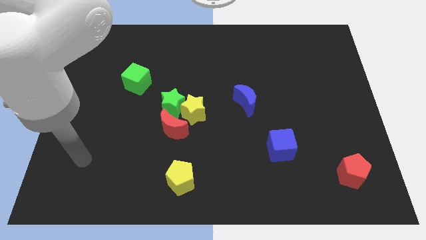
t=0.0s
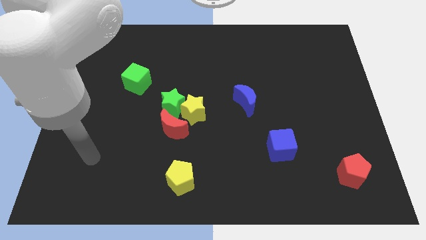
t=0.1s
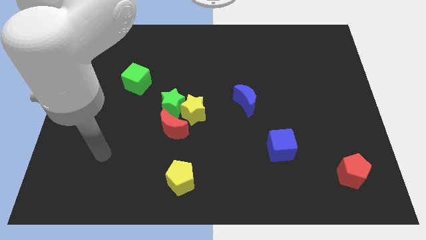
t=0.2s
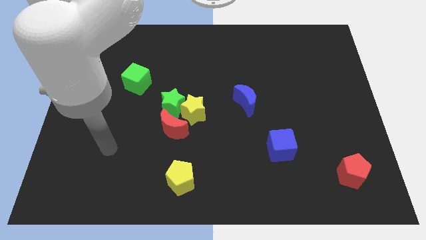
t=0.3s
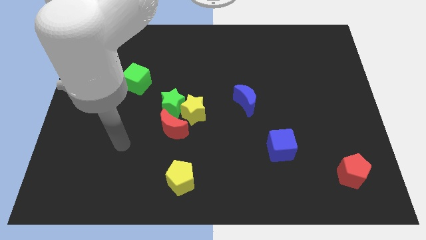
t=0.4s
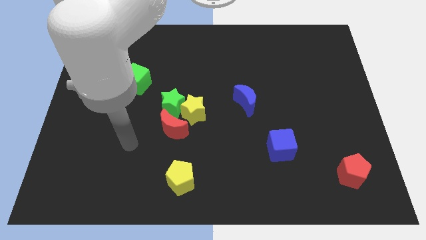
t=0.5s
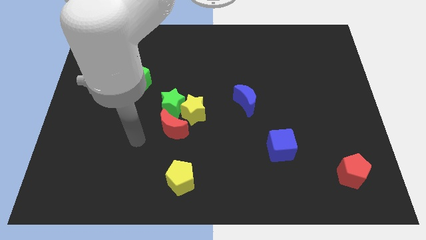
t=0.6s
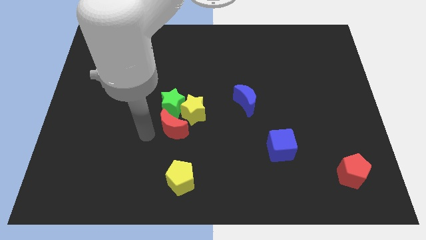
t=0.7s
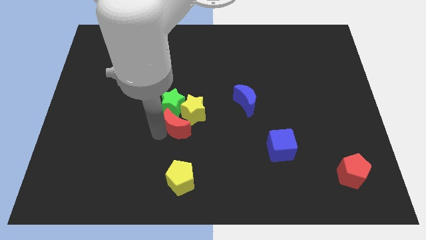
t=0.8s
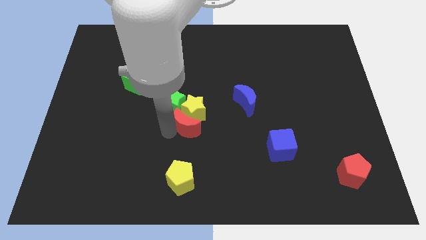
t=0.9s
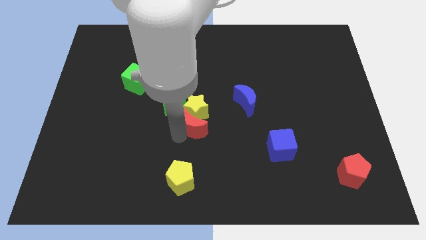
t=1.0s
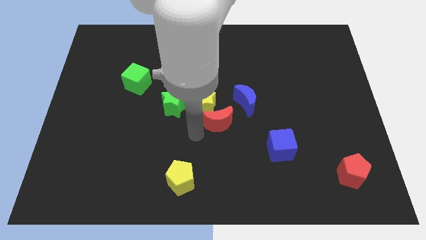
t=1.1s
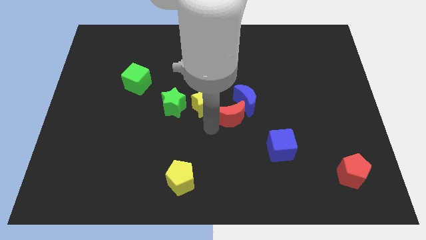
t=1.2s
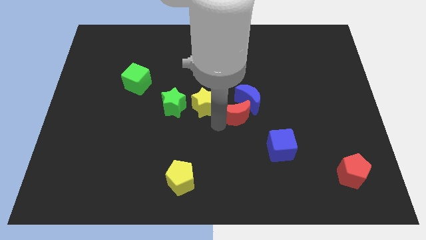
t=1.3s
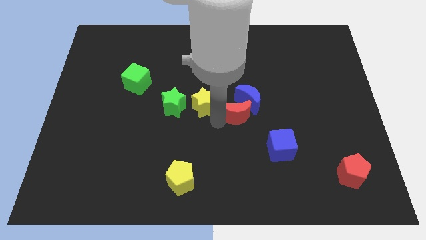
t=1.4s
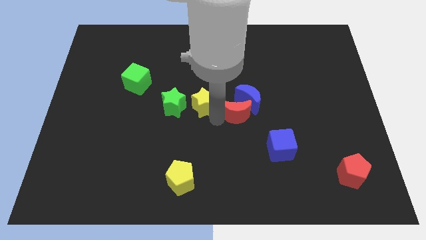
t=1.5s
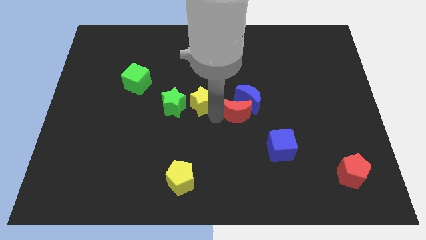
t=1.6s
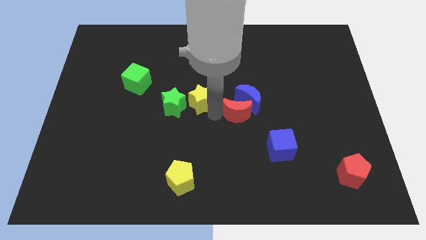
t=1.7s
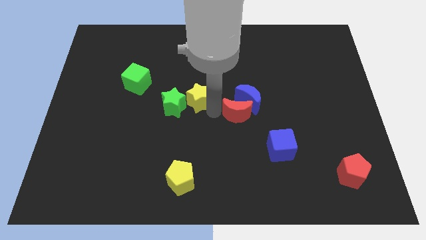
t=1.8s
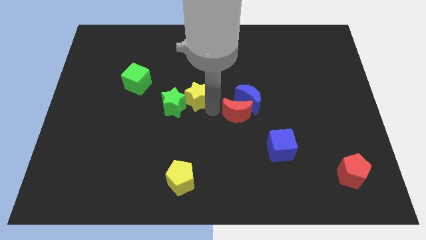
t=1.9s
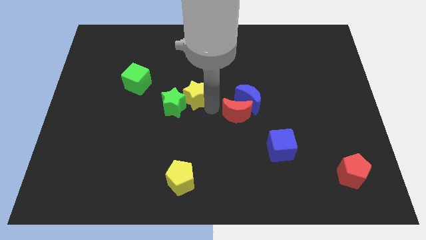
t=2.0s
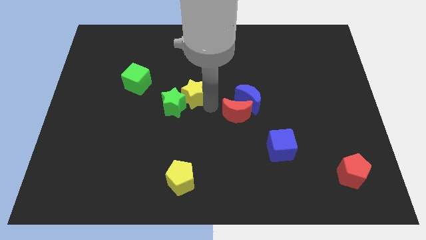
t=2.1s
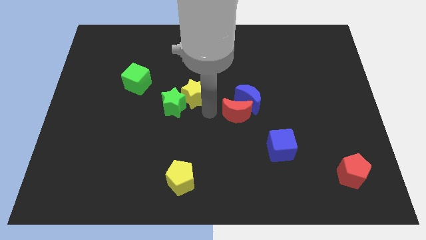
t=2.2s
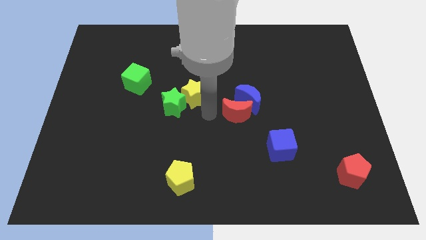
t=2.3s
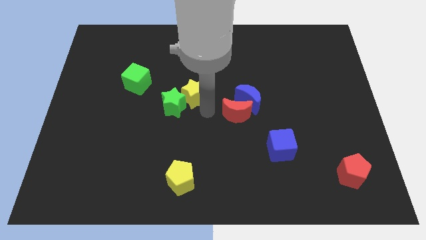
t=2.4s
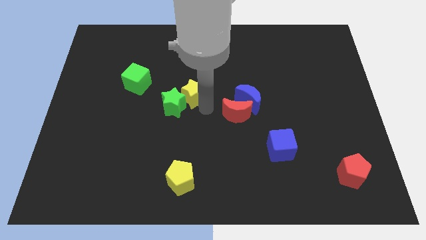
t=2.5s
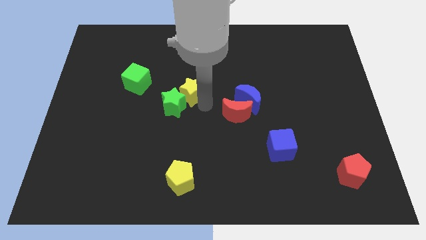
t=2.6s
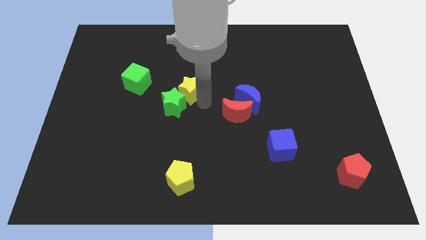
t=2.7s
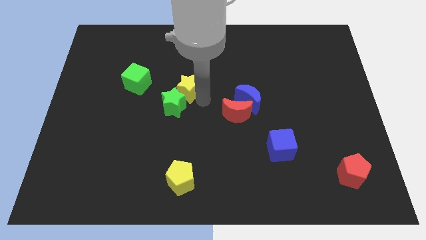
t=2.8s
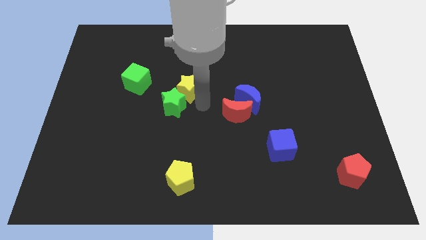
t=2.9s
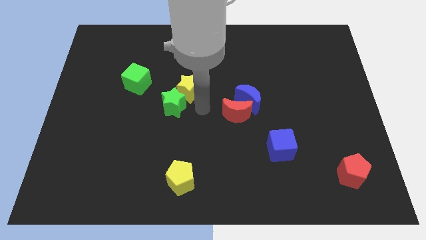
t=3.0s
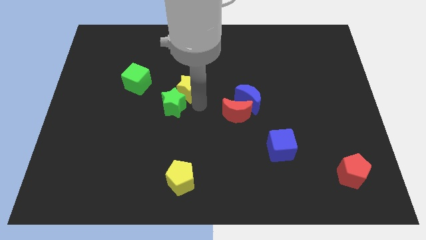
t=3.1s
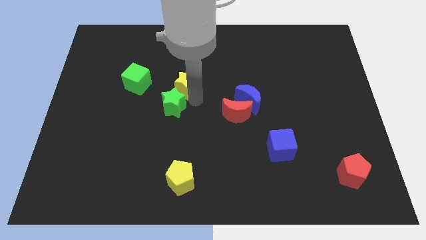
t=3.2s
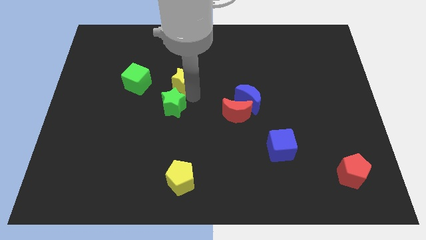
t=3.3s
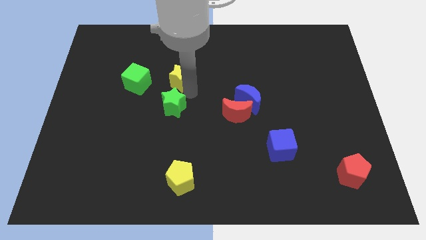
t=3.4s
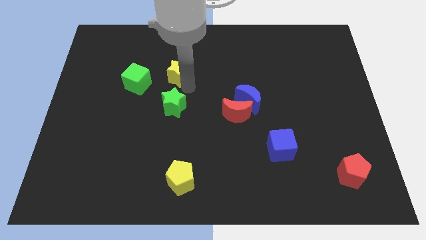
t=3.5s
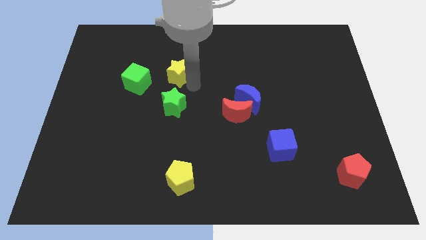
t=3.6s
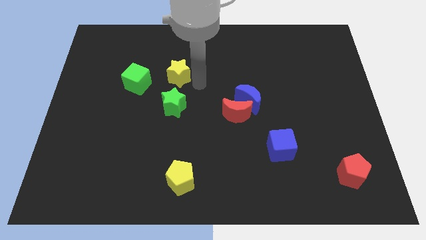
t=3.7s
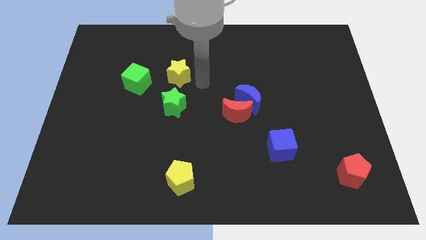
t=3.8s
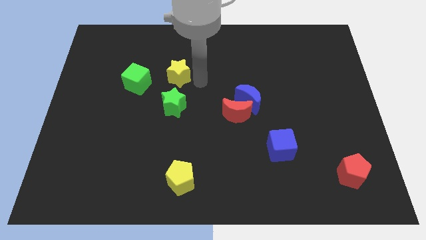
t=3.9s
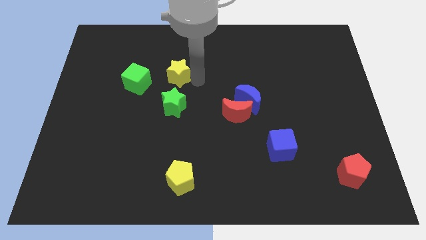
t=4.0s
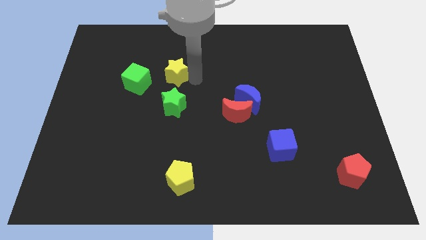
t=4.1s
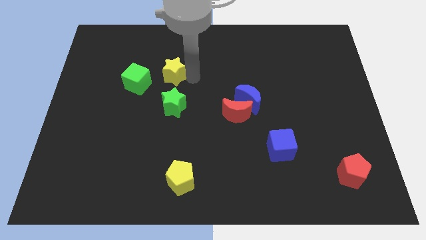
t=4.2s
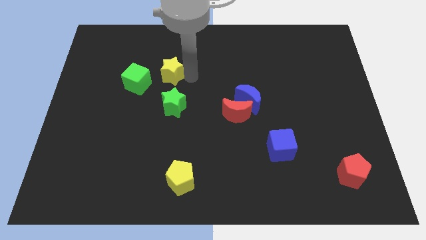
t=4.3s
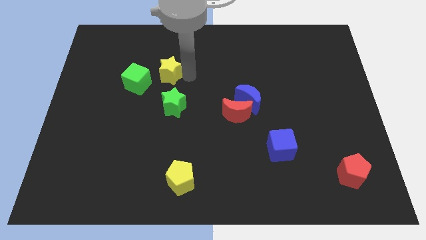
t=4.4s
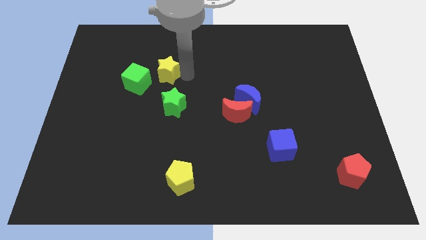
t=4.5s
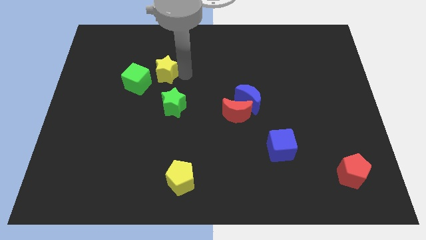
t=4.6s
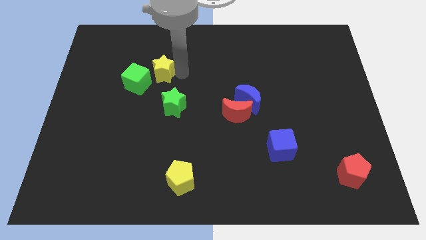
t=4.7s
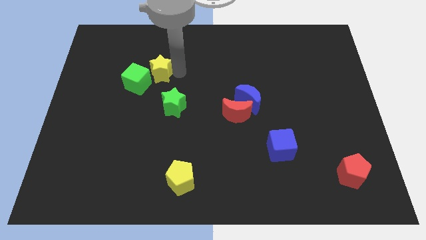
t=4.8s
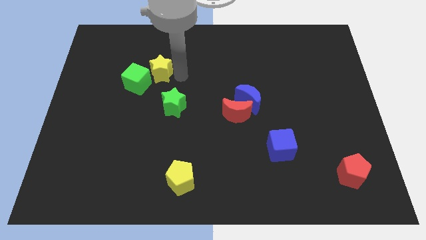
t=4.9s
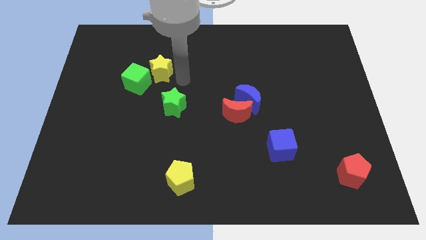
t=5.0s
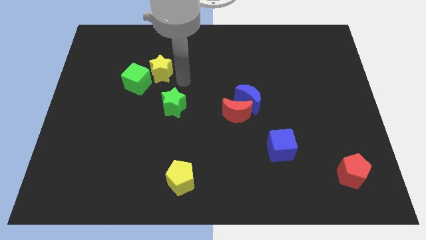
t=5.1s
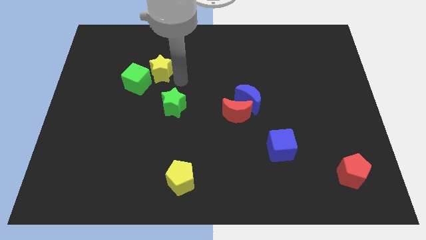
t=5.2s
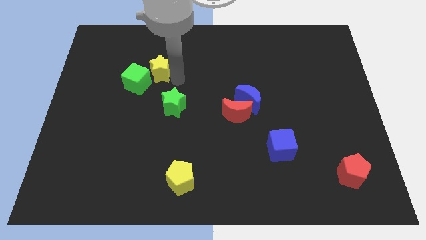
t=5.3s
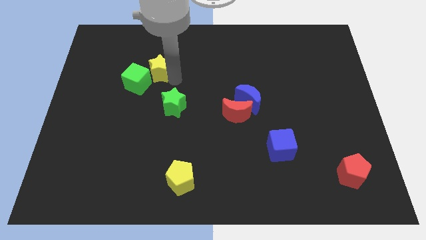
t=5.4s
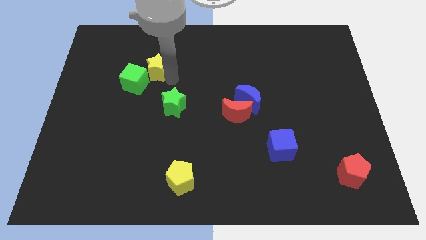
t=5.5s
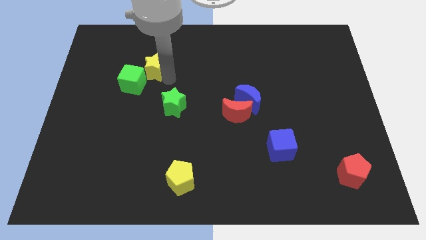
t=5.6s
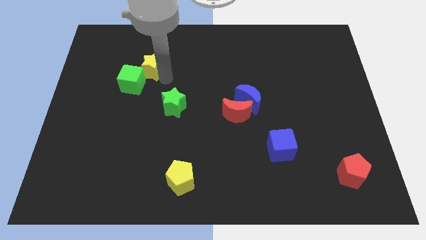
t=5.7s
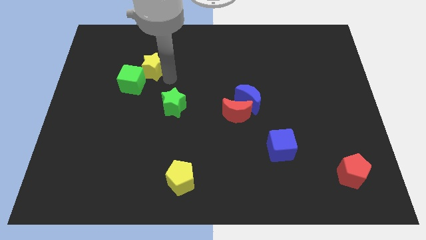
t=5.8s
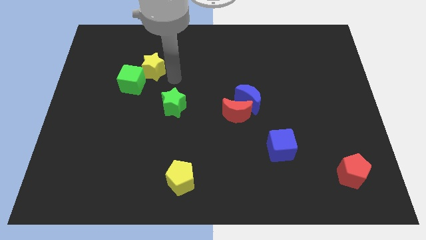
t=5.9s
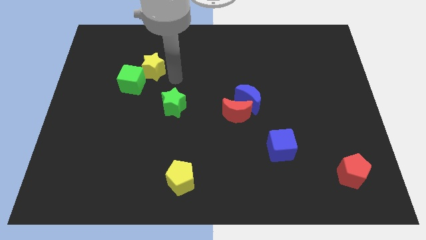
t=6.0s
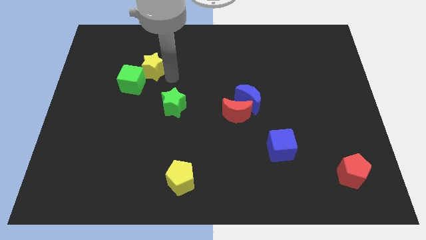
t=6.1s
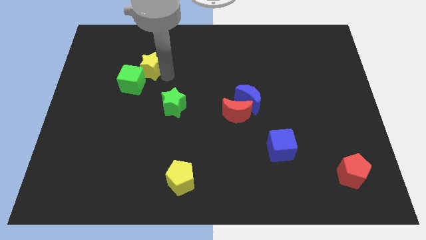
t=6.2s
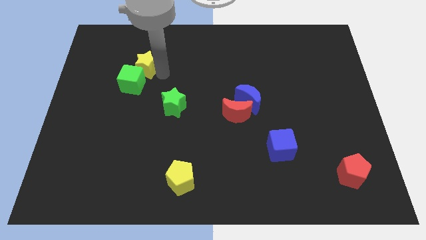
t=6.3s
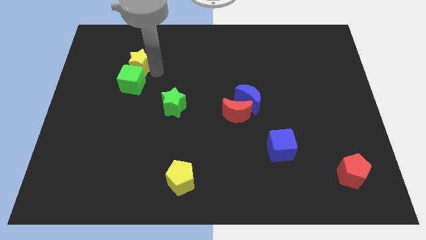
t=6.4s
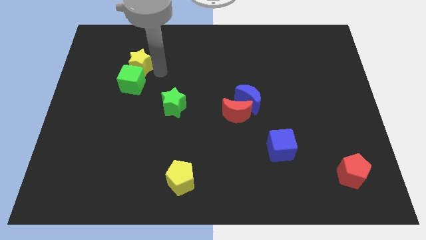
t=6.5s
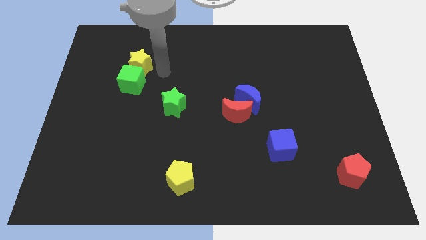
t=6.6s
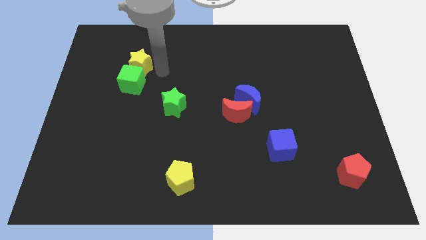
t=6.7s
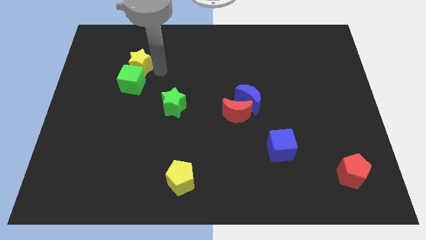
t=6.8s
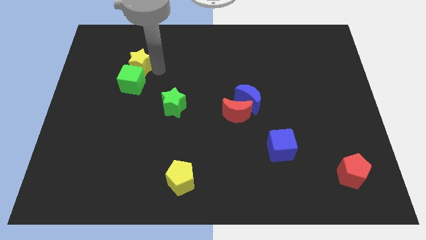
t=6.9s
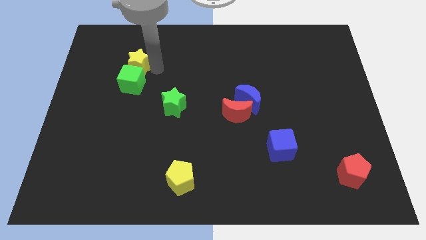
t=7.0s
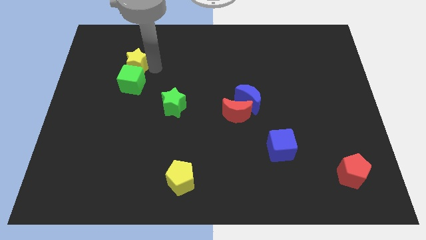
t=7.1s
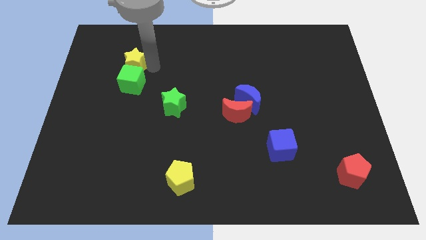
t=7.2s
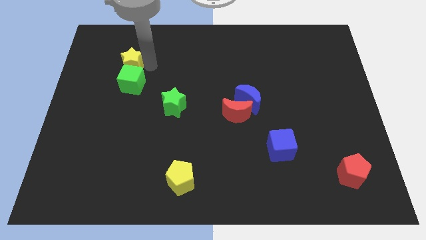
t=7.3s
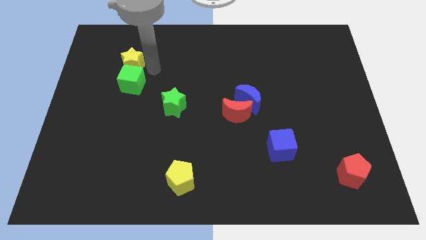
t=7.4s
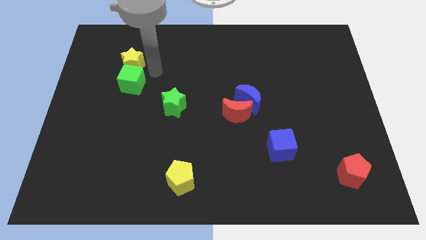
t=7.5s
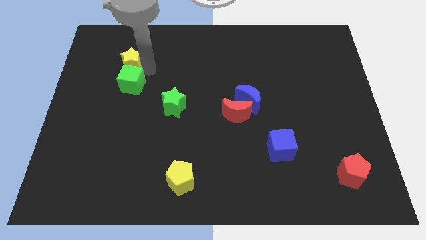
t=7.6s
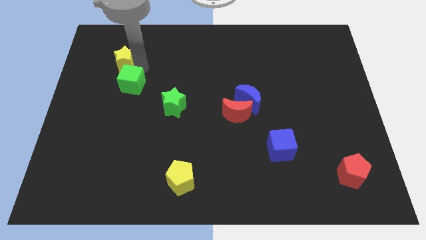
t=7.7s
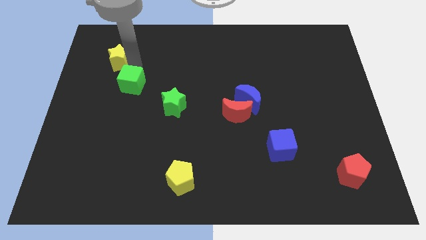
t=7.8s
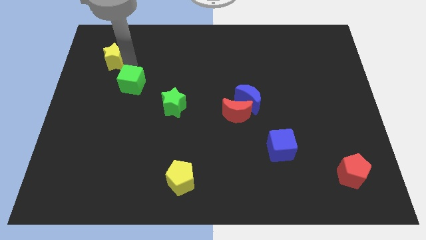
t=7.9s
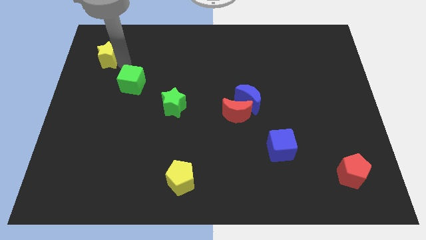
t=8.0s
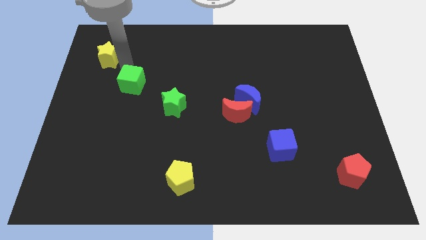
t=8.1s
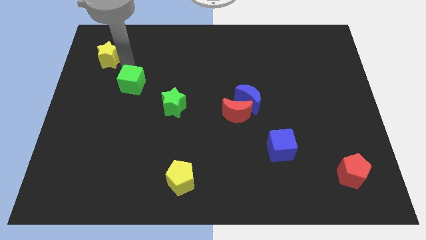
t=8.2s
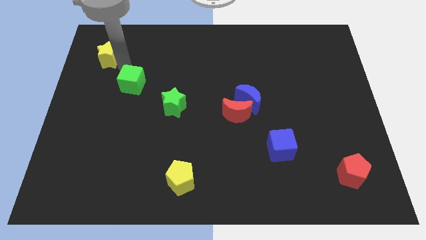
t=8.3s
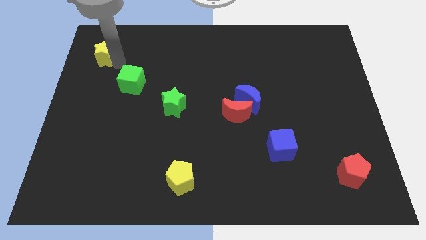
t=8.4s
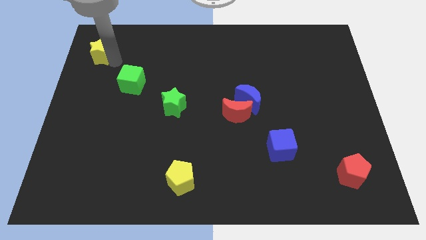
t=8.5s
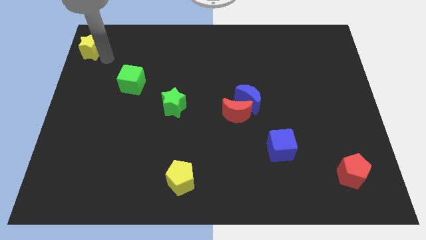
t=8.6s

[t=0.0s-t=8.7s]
slide the yellow star to the top left corner
